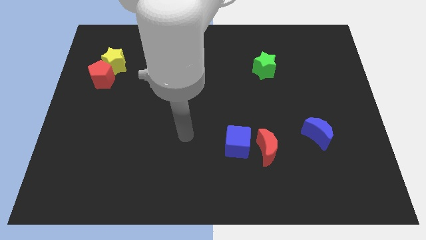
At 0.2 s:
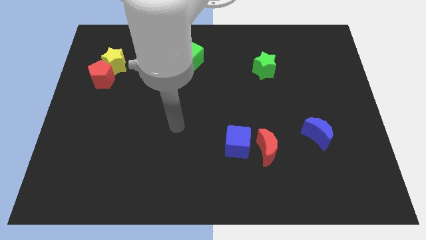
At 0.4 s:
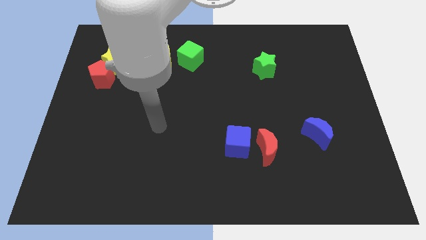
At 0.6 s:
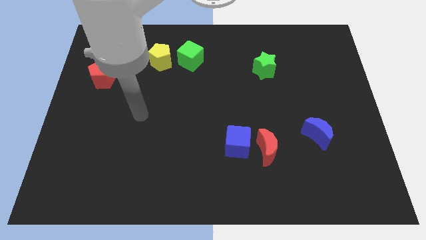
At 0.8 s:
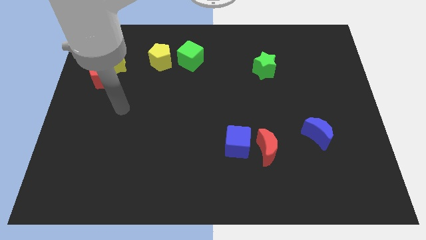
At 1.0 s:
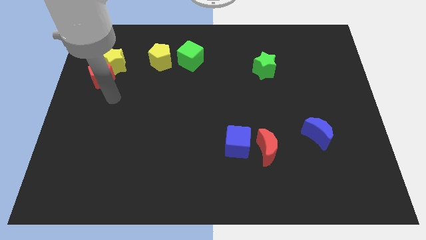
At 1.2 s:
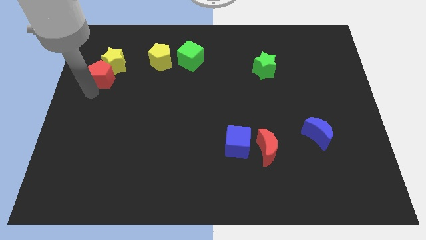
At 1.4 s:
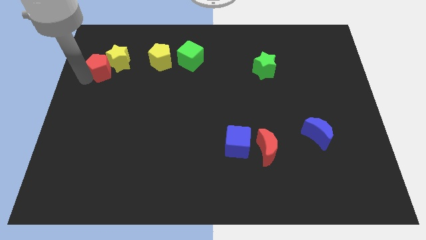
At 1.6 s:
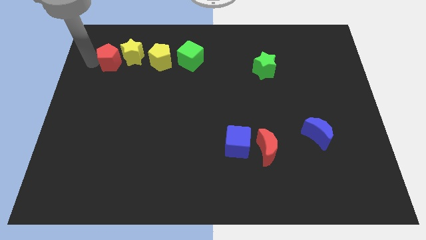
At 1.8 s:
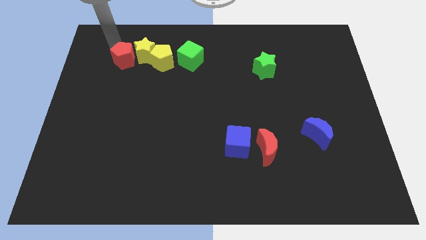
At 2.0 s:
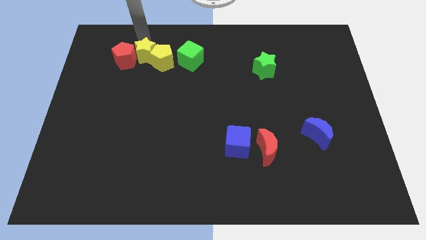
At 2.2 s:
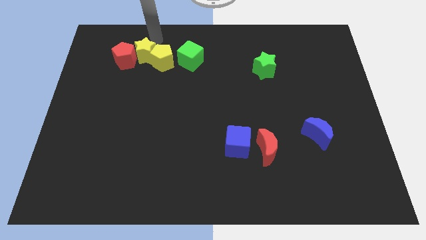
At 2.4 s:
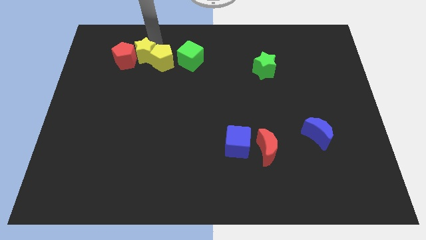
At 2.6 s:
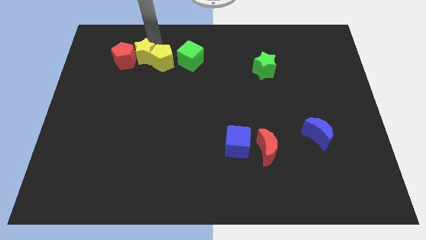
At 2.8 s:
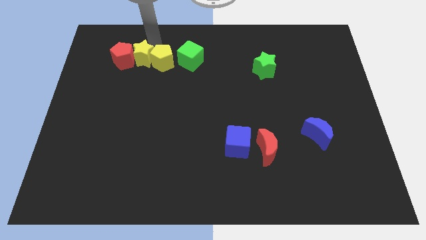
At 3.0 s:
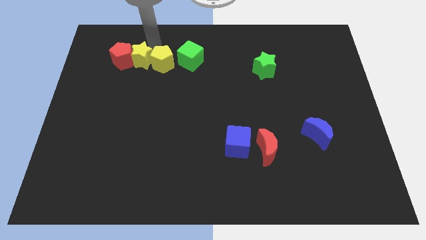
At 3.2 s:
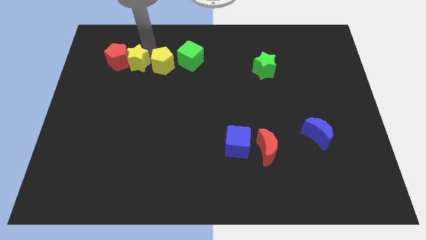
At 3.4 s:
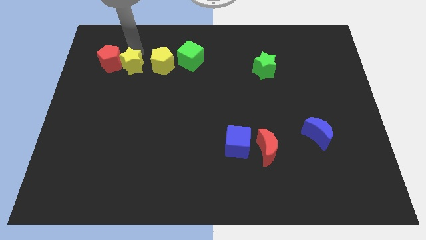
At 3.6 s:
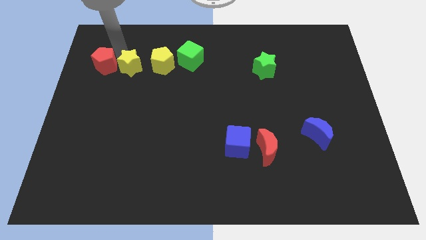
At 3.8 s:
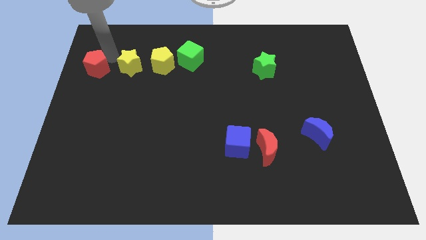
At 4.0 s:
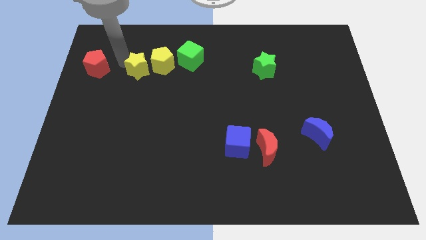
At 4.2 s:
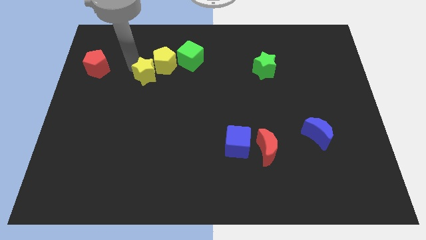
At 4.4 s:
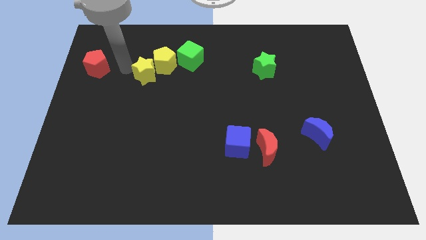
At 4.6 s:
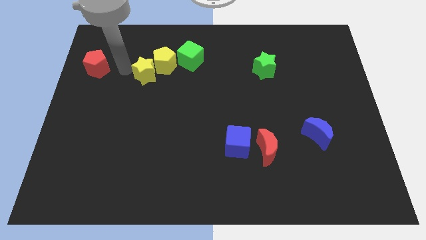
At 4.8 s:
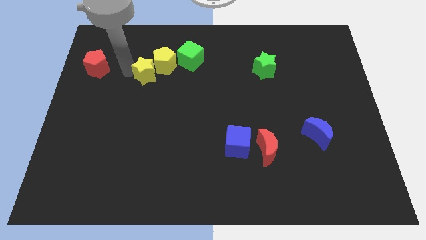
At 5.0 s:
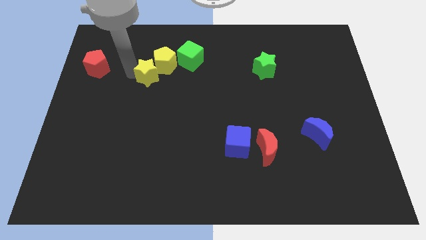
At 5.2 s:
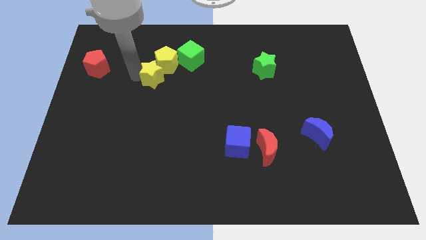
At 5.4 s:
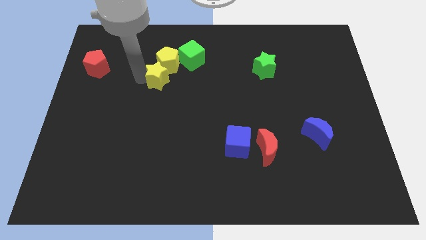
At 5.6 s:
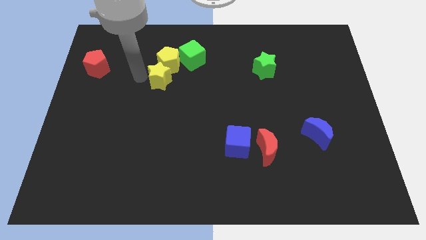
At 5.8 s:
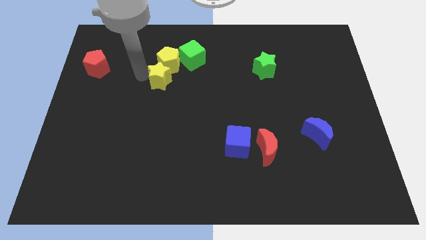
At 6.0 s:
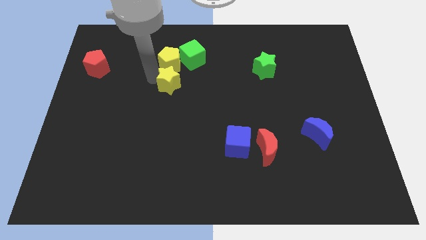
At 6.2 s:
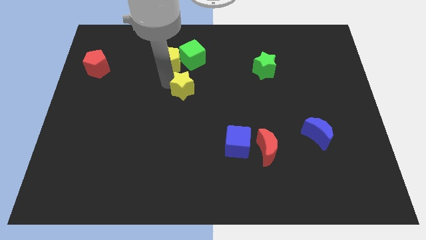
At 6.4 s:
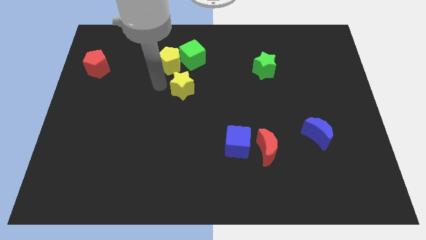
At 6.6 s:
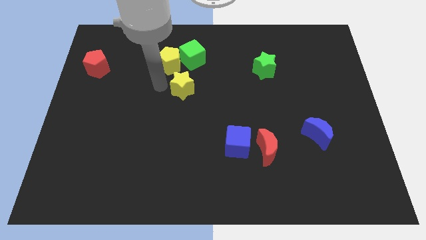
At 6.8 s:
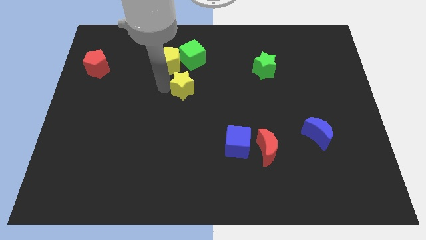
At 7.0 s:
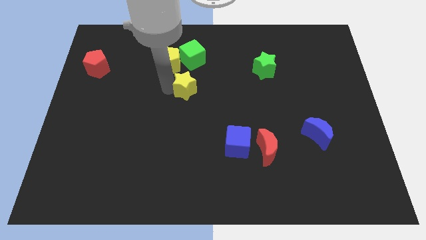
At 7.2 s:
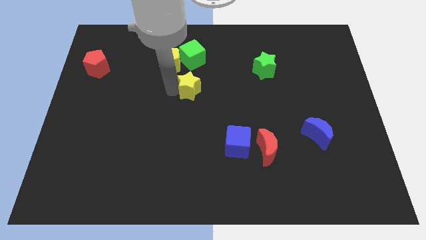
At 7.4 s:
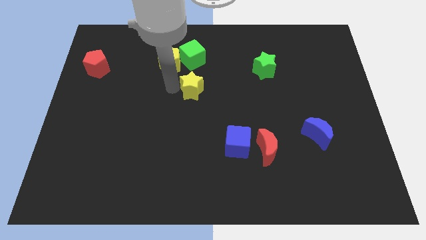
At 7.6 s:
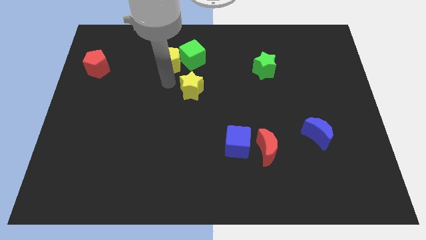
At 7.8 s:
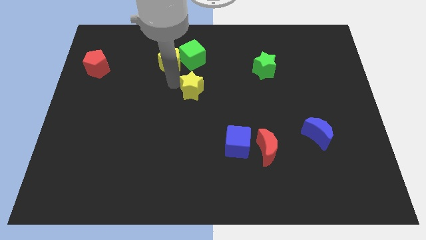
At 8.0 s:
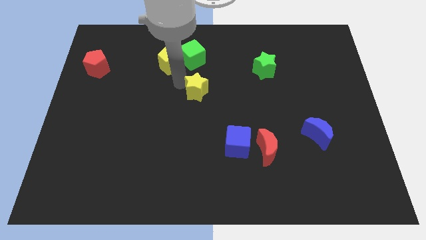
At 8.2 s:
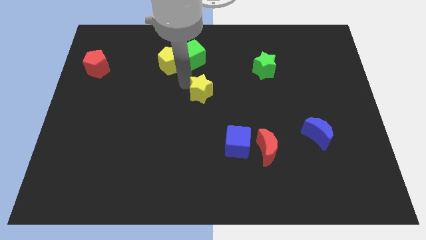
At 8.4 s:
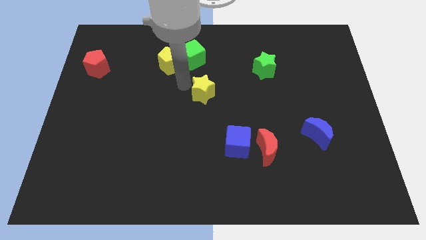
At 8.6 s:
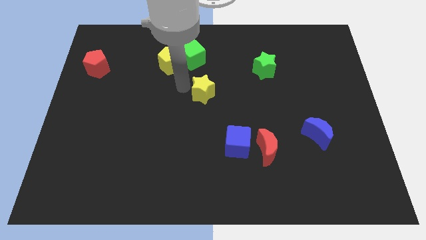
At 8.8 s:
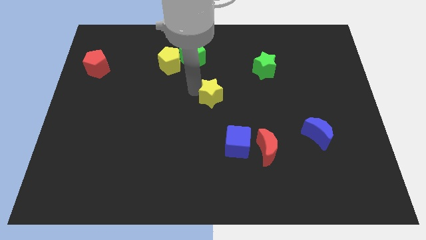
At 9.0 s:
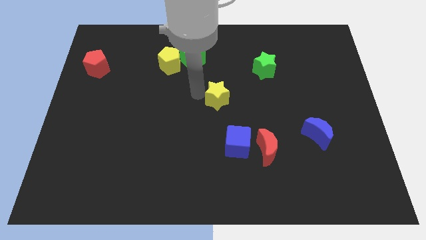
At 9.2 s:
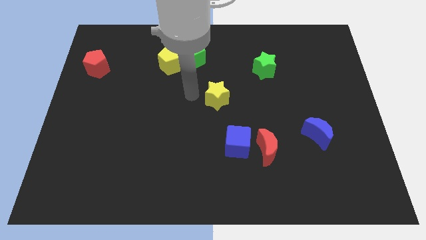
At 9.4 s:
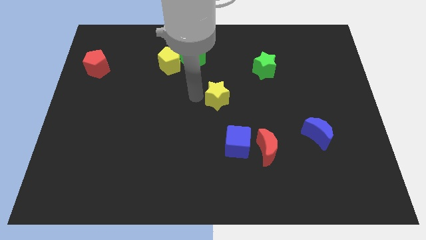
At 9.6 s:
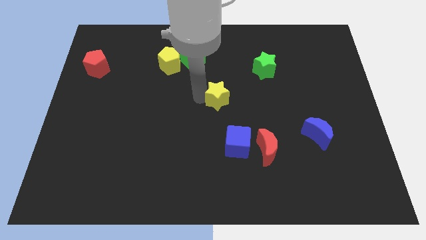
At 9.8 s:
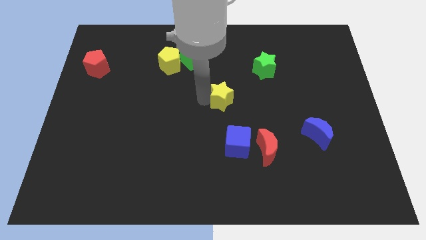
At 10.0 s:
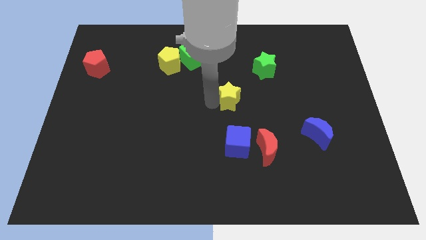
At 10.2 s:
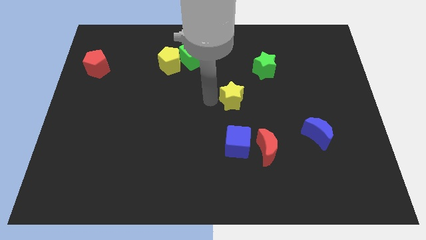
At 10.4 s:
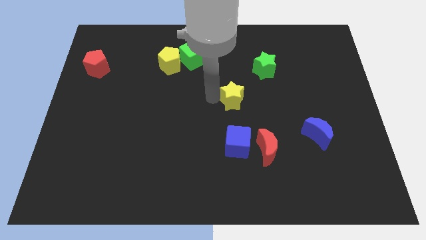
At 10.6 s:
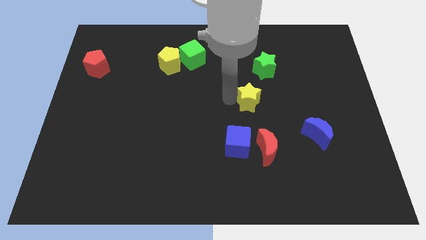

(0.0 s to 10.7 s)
move the yellow star to the bottom of the green star
